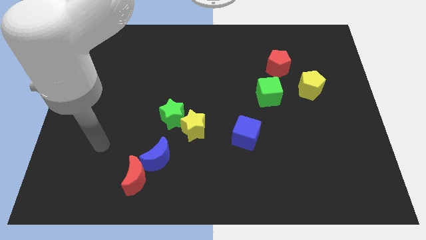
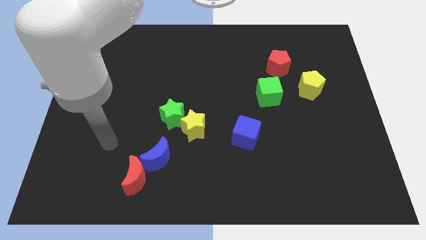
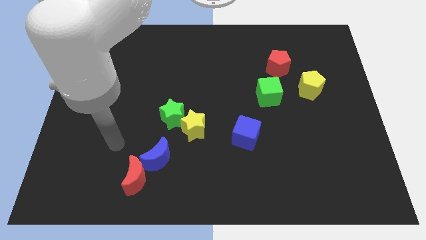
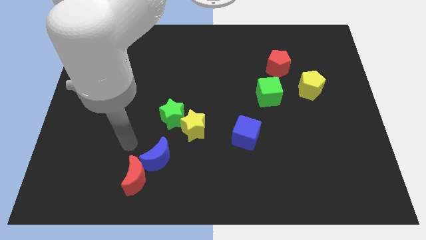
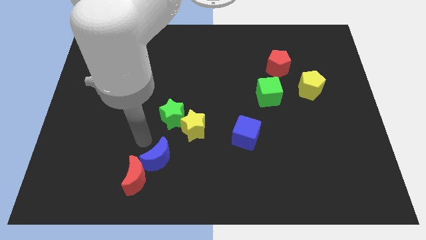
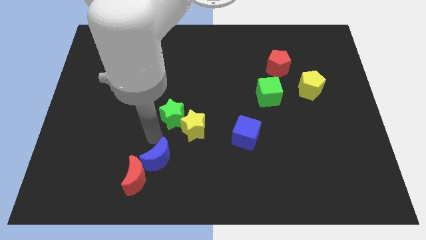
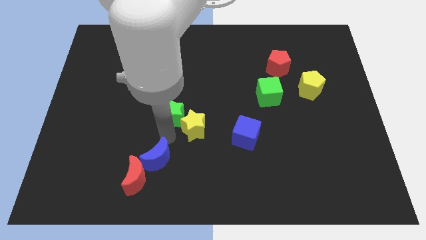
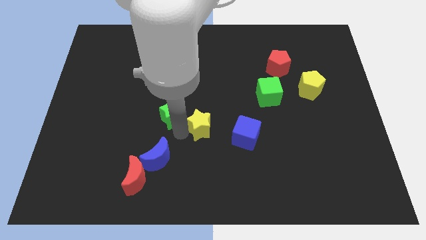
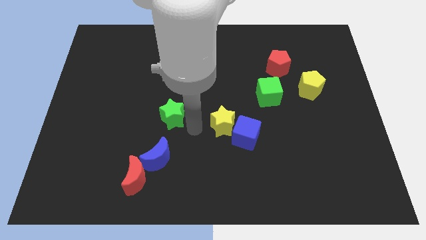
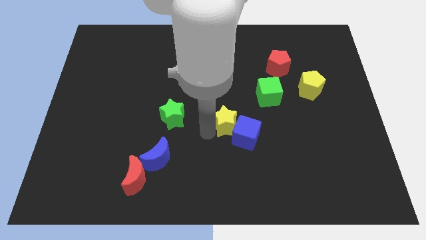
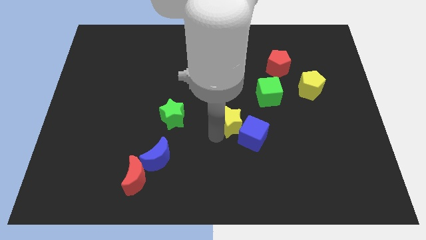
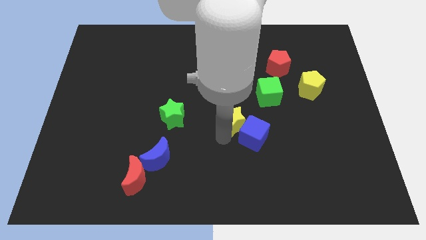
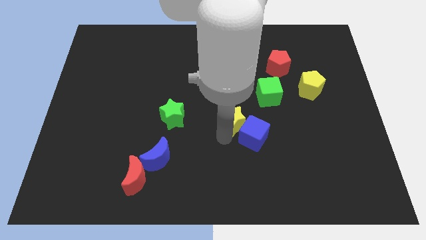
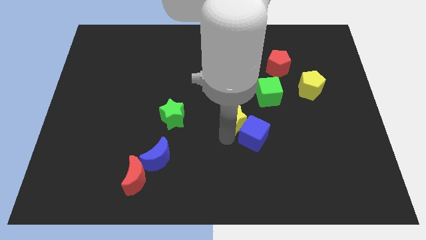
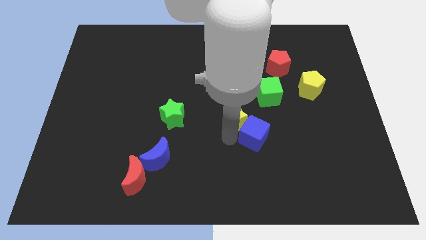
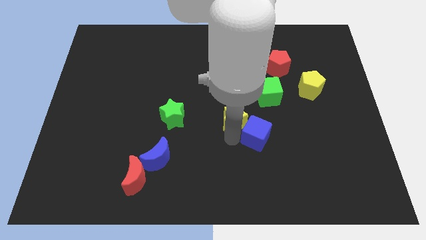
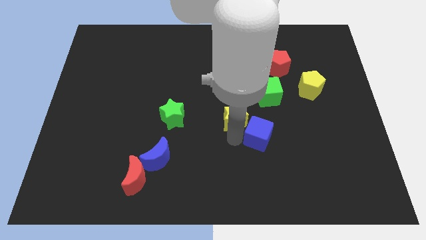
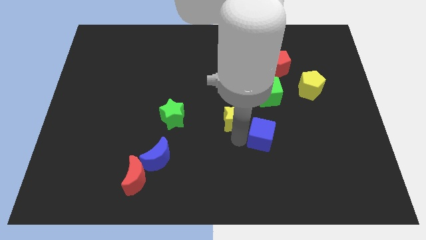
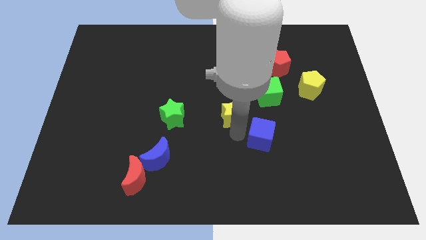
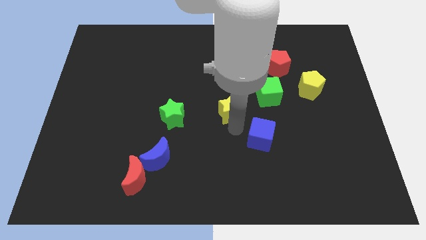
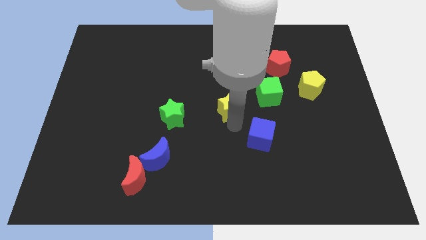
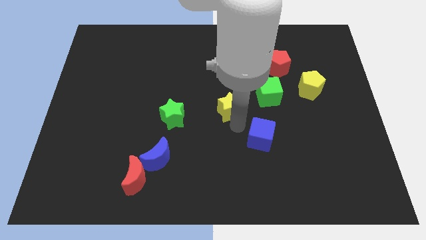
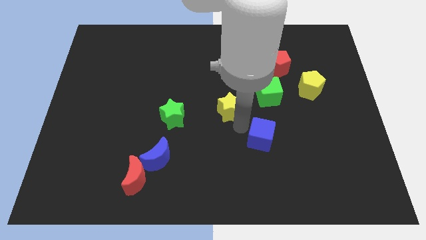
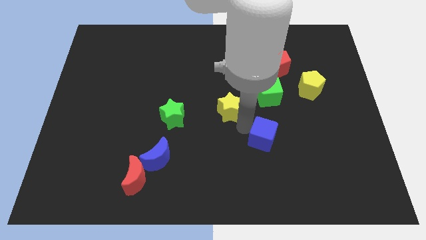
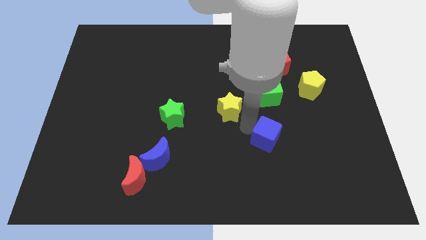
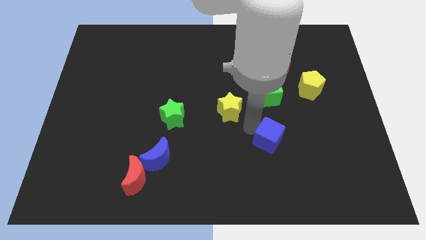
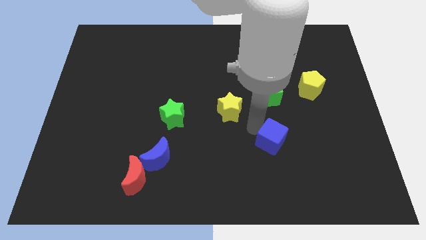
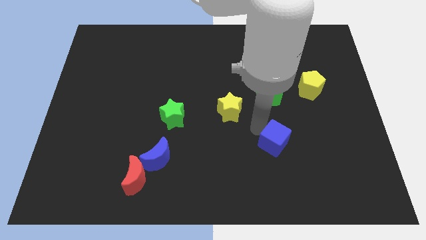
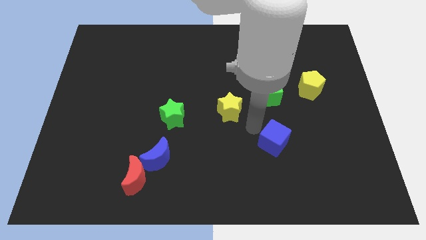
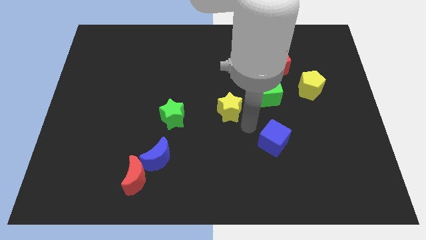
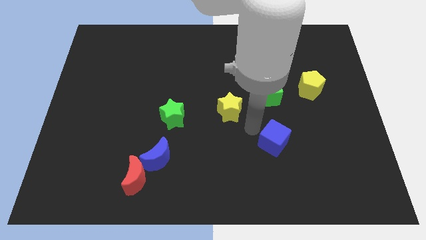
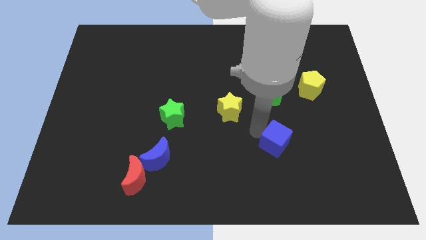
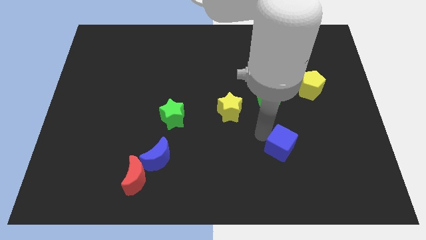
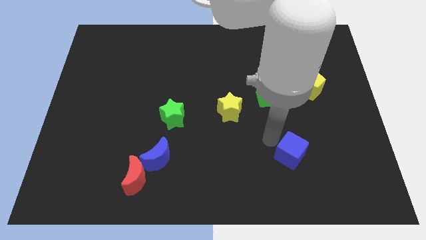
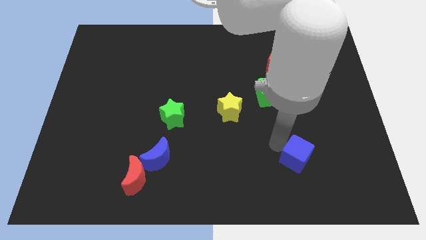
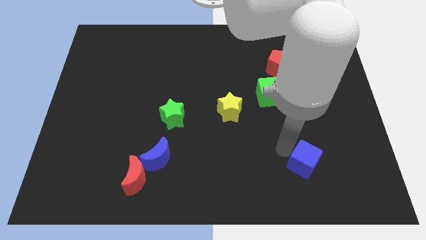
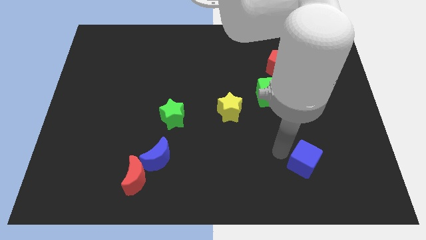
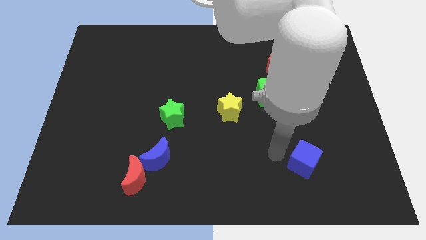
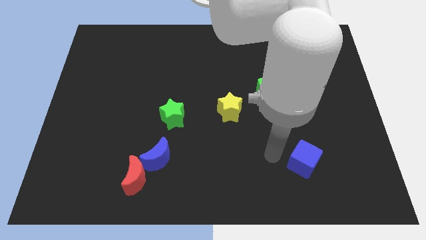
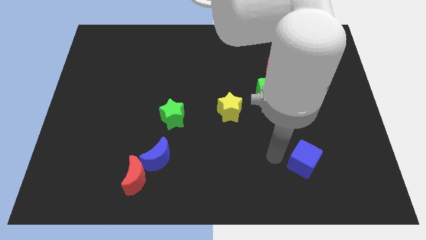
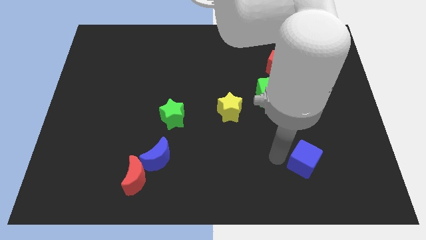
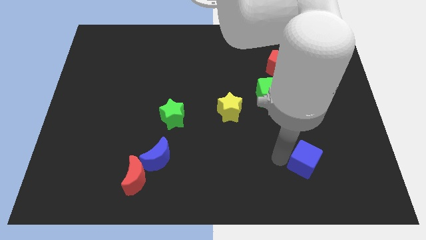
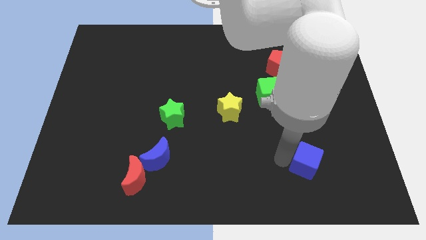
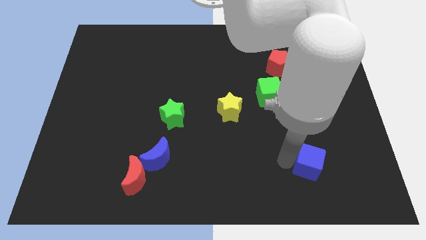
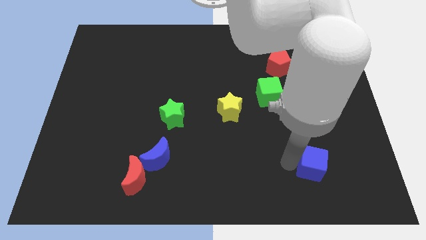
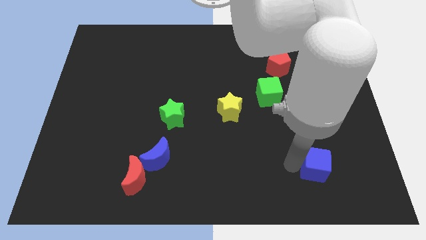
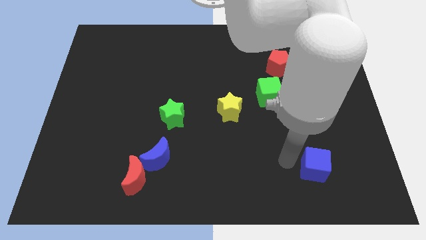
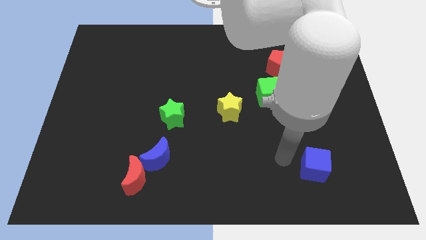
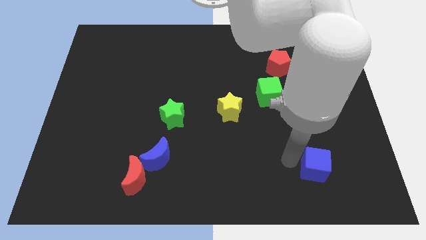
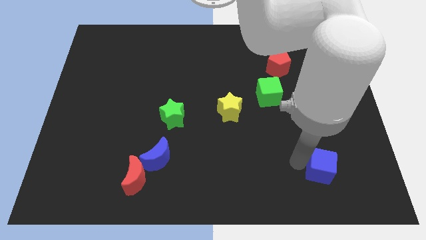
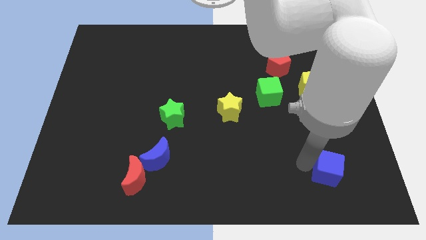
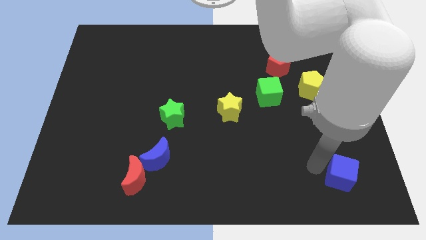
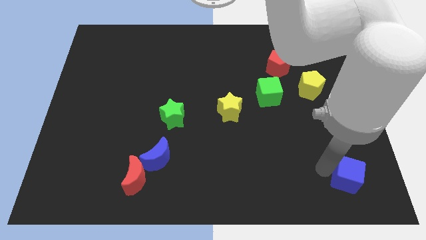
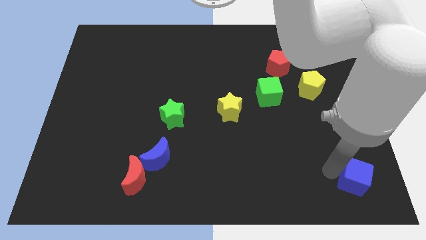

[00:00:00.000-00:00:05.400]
move the blue cube to the bottom right
